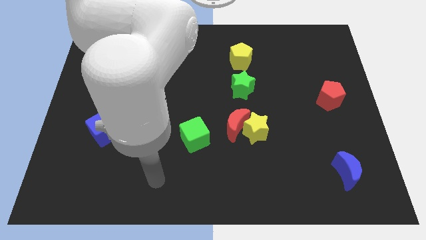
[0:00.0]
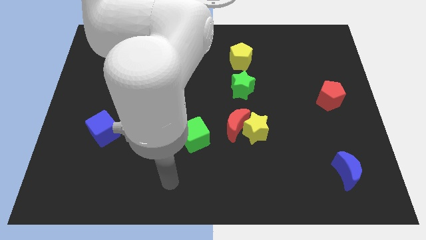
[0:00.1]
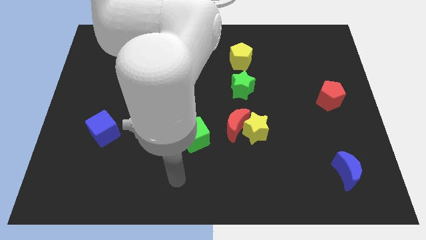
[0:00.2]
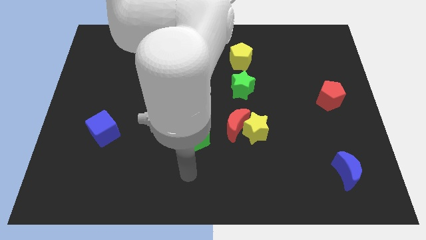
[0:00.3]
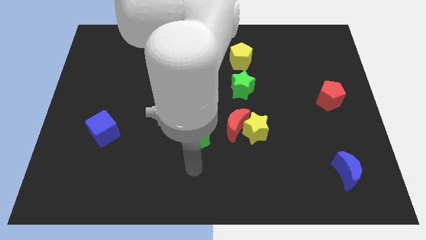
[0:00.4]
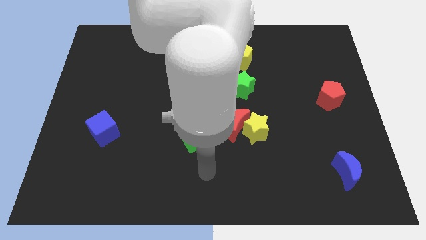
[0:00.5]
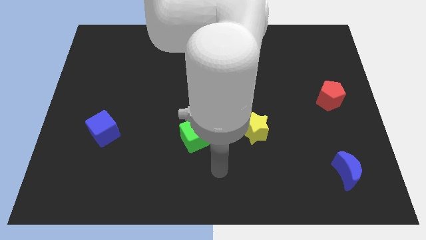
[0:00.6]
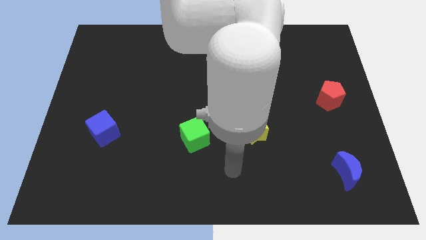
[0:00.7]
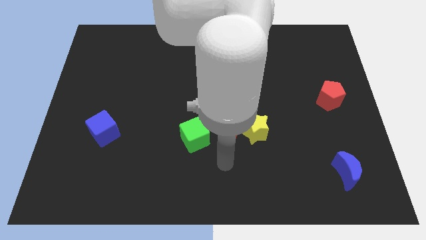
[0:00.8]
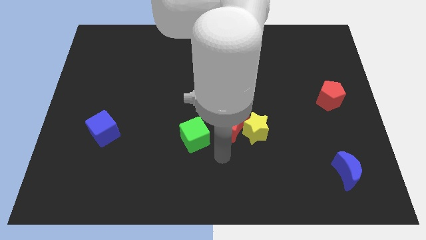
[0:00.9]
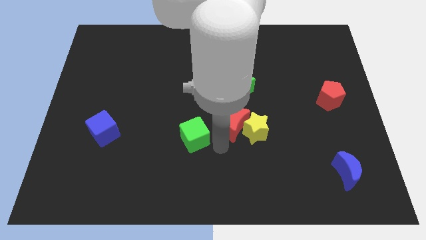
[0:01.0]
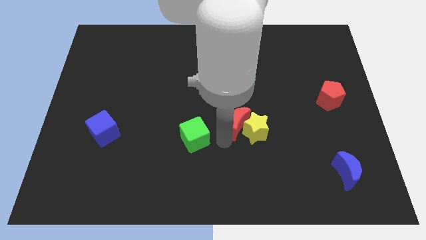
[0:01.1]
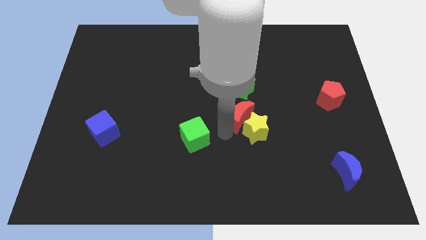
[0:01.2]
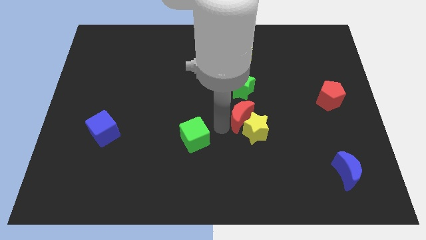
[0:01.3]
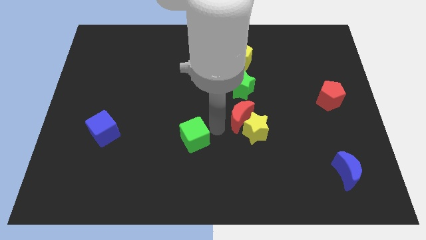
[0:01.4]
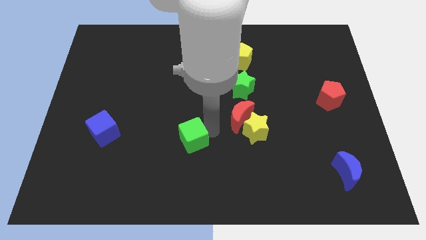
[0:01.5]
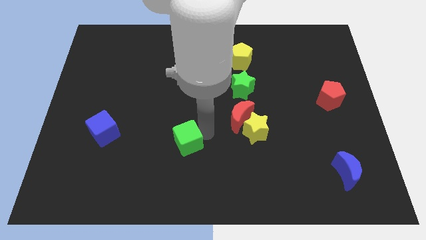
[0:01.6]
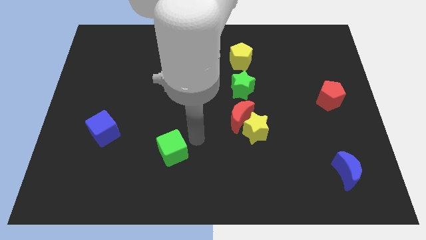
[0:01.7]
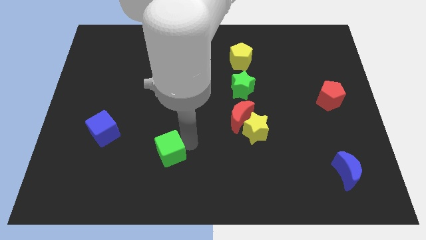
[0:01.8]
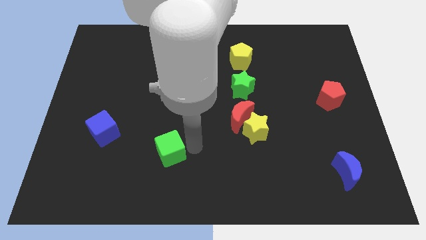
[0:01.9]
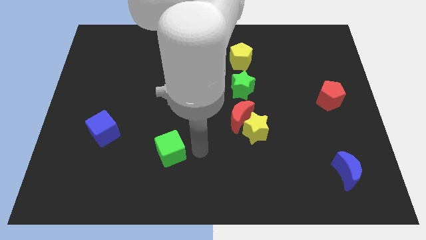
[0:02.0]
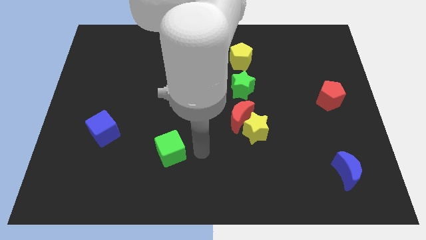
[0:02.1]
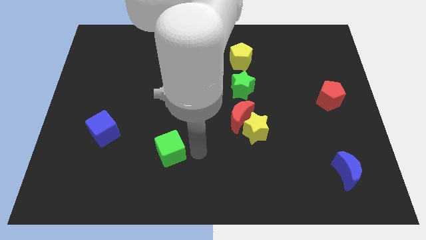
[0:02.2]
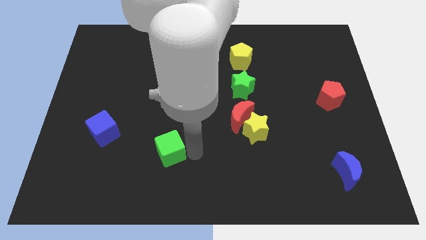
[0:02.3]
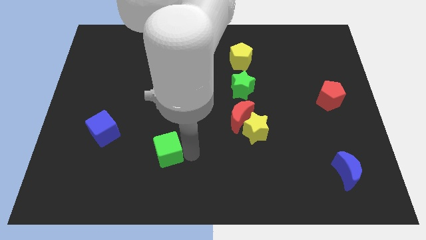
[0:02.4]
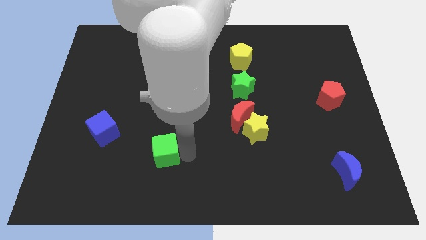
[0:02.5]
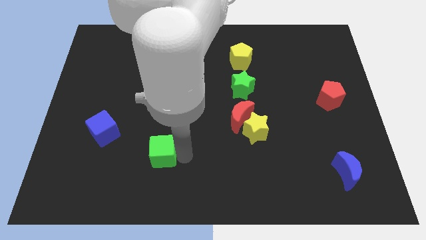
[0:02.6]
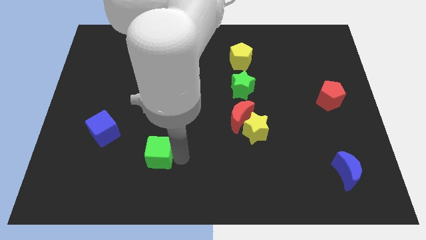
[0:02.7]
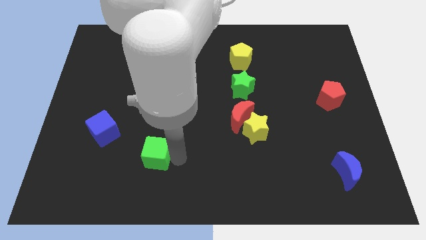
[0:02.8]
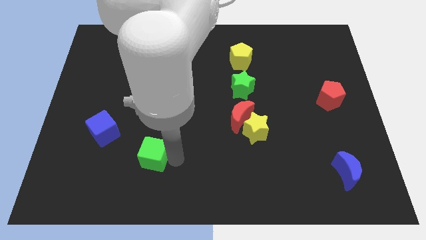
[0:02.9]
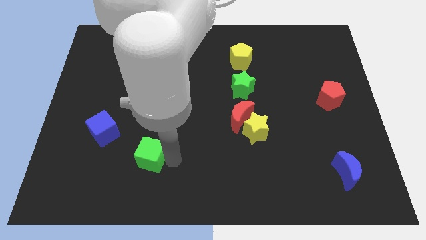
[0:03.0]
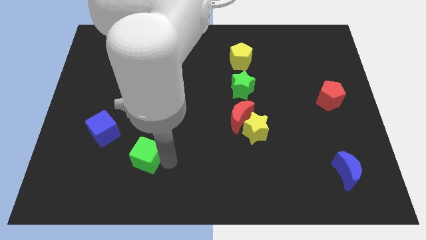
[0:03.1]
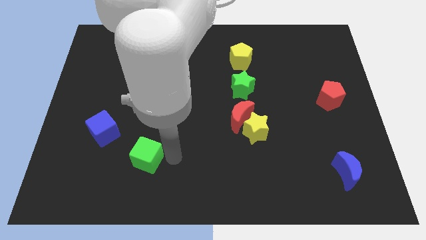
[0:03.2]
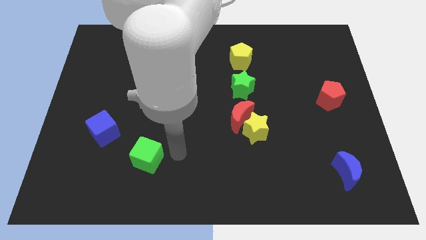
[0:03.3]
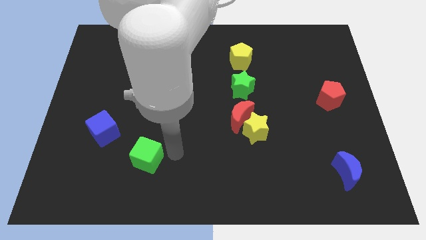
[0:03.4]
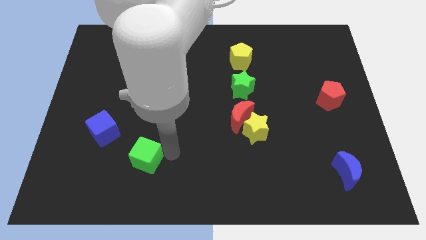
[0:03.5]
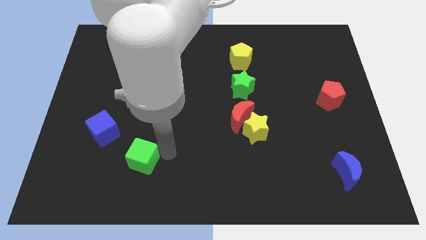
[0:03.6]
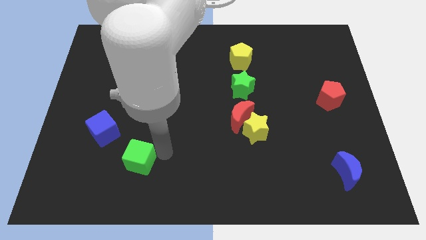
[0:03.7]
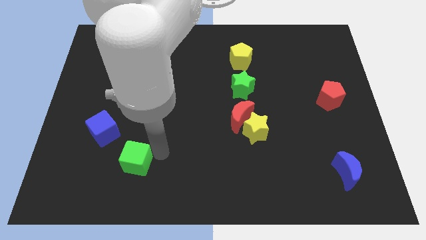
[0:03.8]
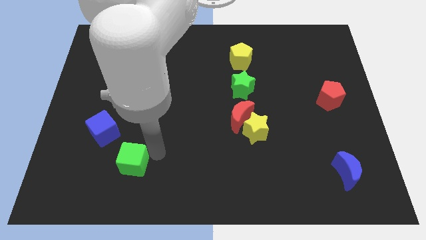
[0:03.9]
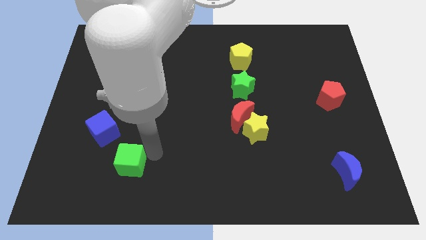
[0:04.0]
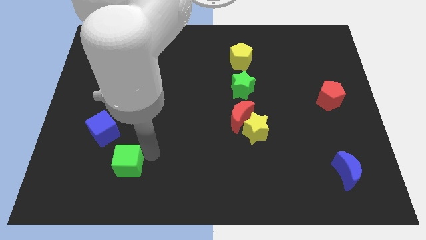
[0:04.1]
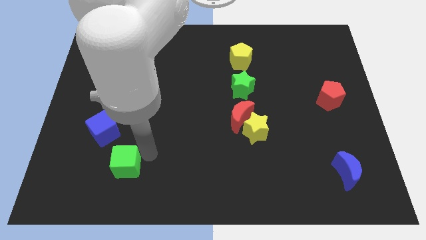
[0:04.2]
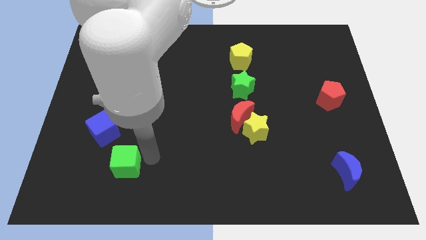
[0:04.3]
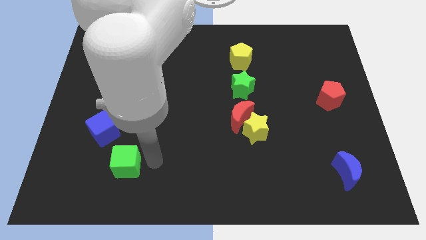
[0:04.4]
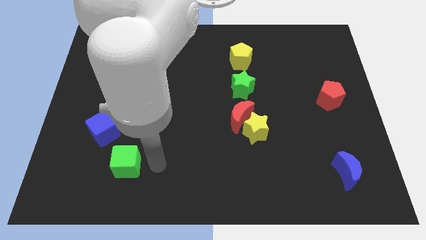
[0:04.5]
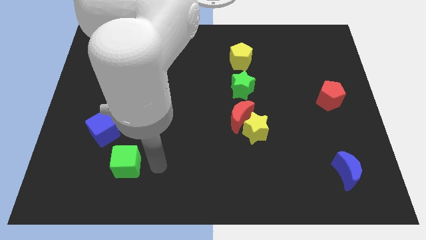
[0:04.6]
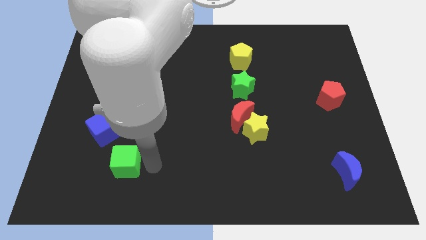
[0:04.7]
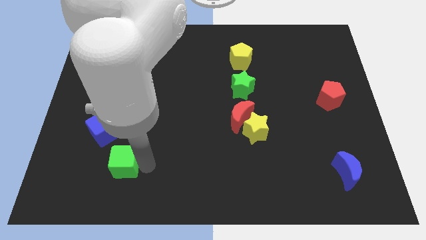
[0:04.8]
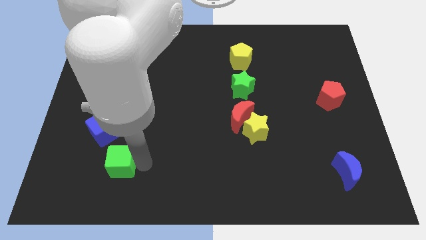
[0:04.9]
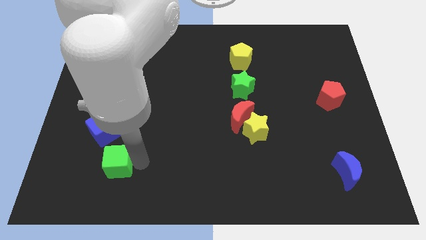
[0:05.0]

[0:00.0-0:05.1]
put the green cube to the bottom of the blue cube

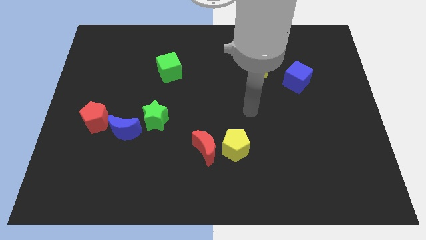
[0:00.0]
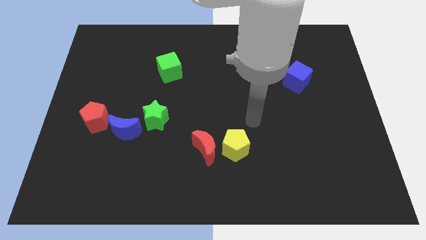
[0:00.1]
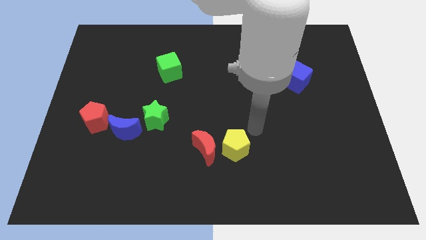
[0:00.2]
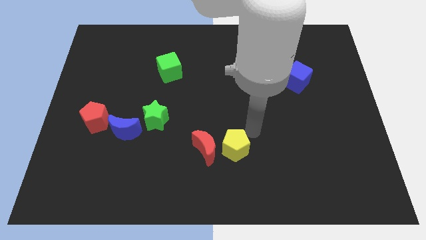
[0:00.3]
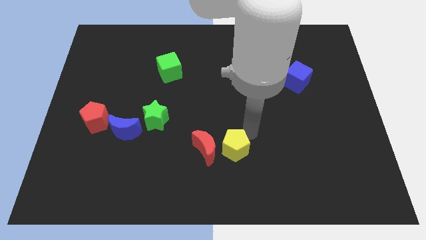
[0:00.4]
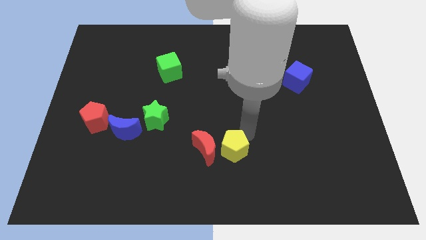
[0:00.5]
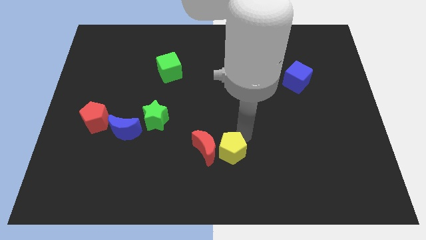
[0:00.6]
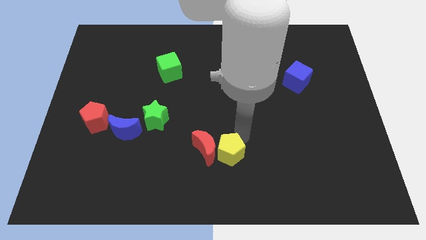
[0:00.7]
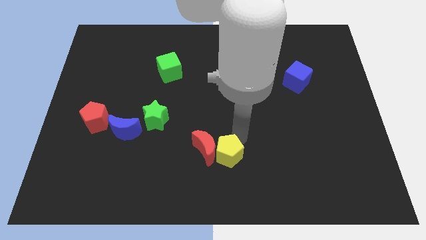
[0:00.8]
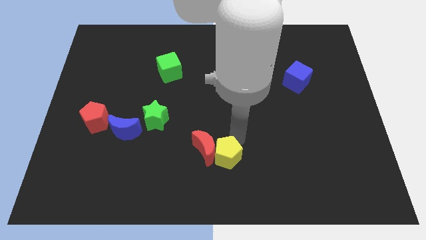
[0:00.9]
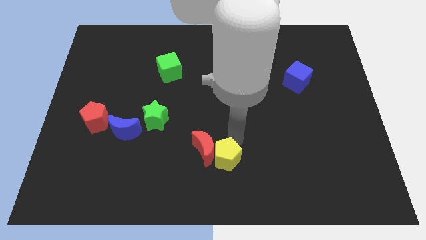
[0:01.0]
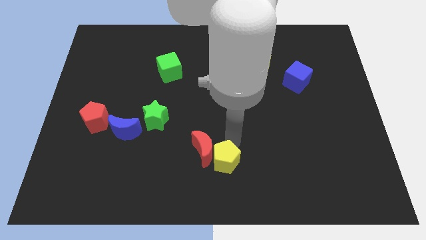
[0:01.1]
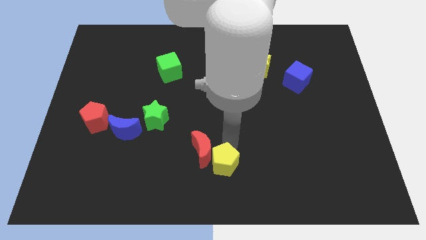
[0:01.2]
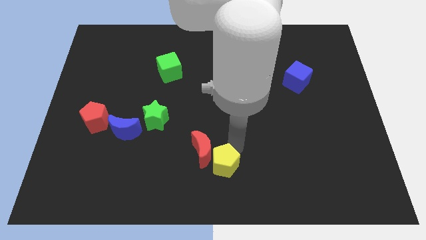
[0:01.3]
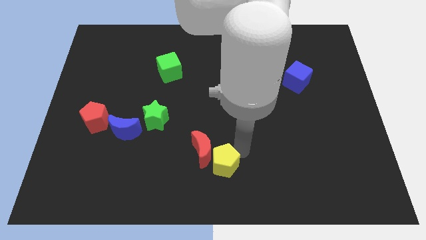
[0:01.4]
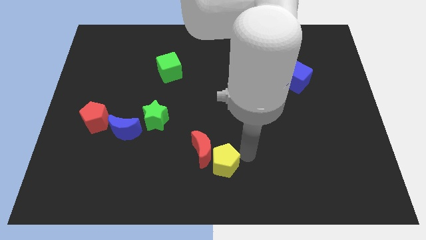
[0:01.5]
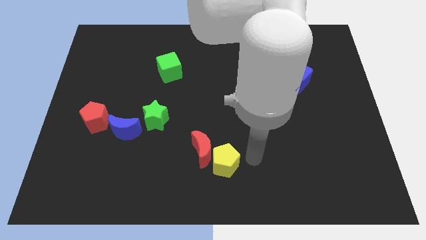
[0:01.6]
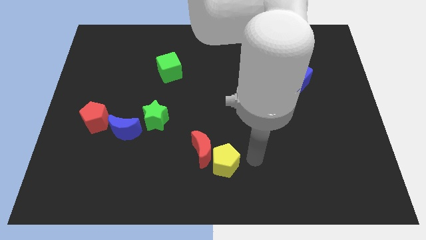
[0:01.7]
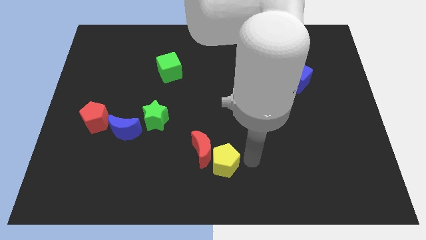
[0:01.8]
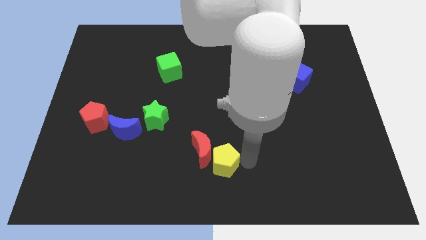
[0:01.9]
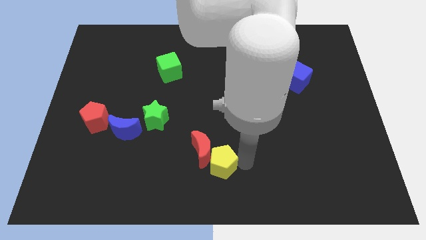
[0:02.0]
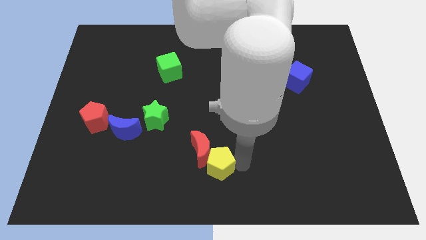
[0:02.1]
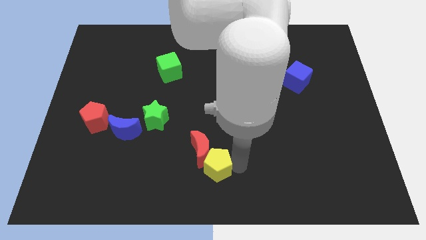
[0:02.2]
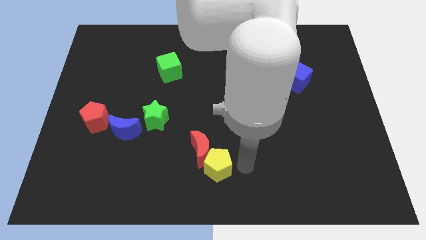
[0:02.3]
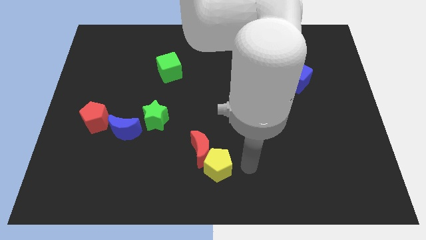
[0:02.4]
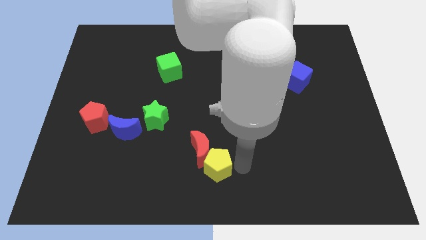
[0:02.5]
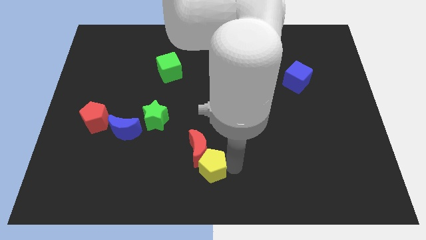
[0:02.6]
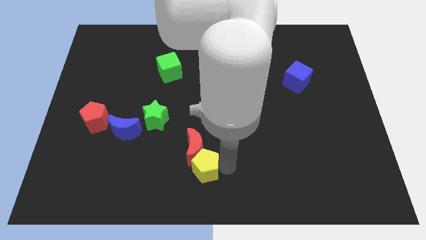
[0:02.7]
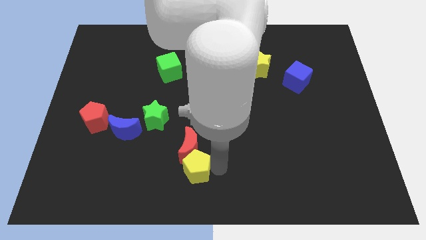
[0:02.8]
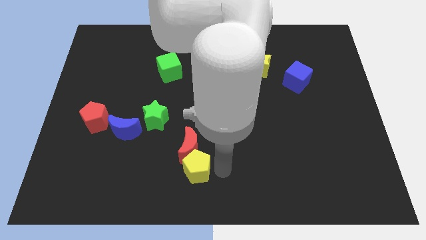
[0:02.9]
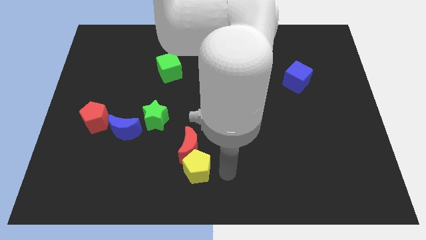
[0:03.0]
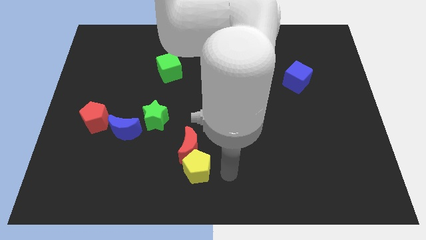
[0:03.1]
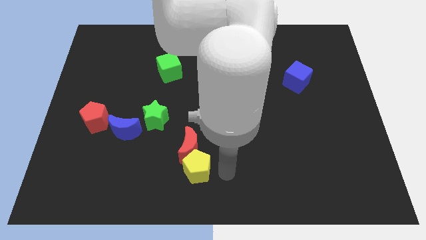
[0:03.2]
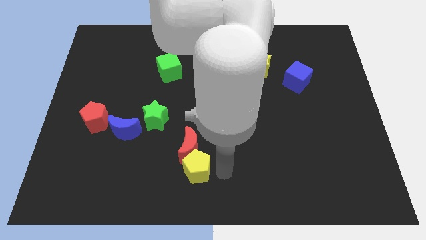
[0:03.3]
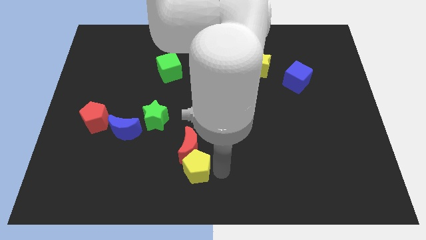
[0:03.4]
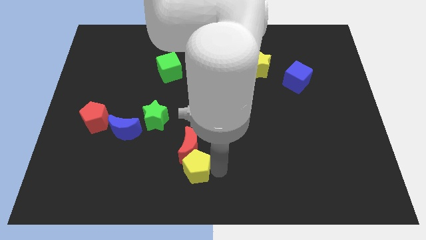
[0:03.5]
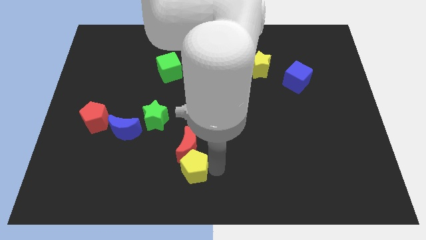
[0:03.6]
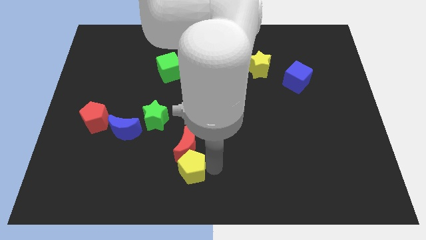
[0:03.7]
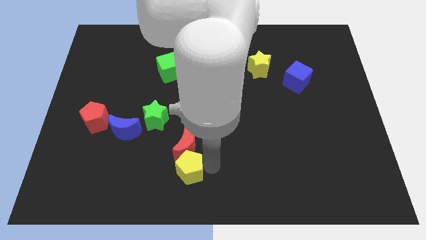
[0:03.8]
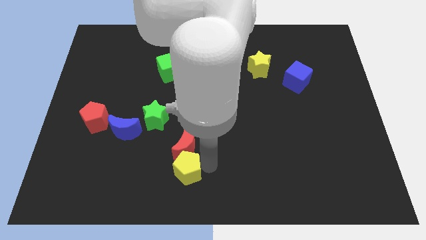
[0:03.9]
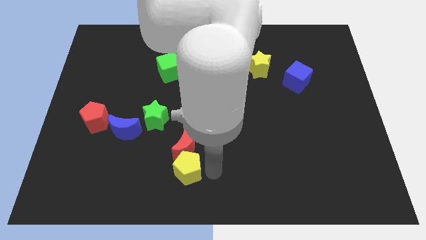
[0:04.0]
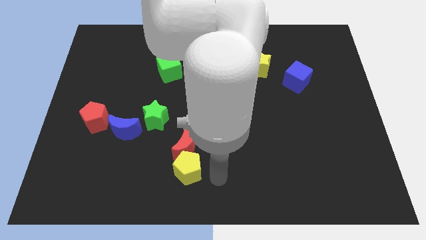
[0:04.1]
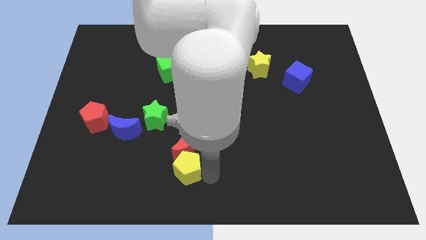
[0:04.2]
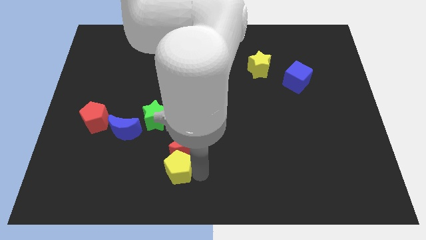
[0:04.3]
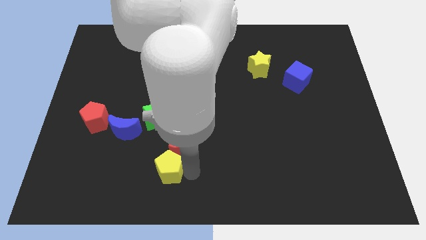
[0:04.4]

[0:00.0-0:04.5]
slide the yellow pentagon to the bottom side of the green star
